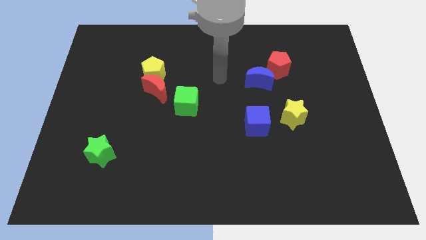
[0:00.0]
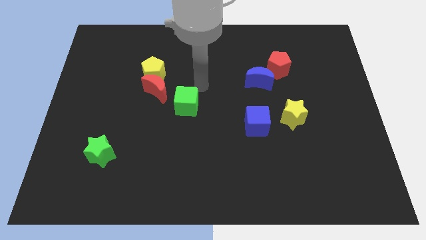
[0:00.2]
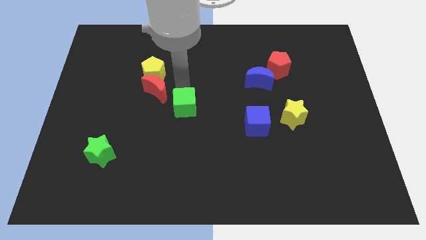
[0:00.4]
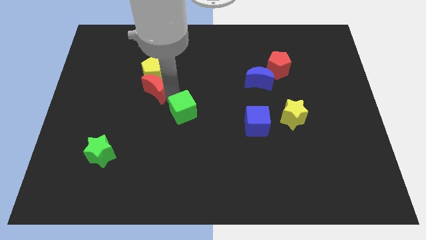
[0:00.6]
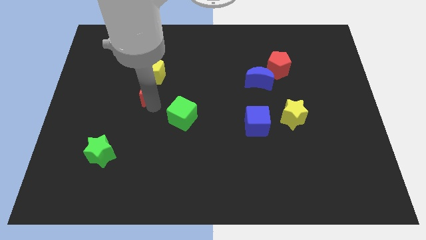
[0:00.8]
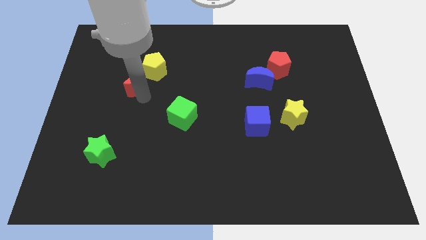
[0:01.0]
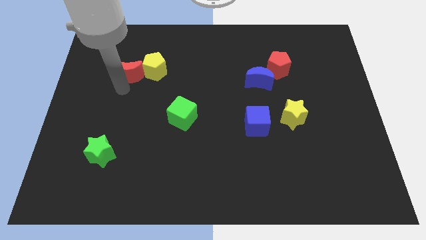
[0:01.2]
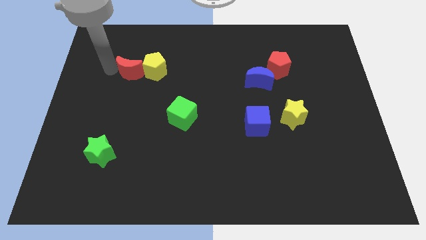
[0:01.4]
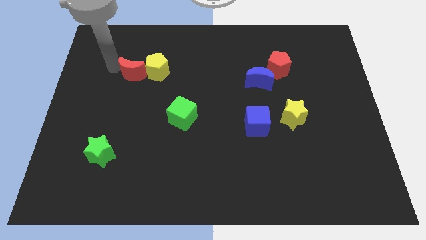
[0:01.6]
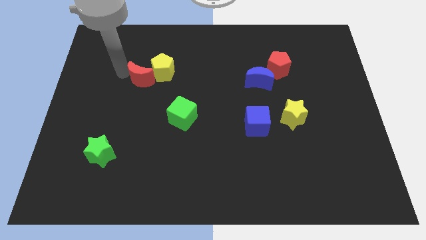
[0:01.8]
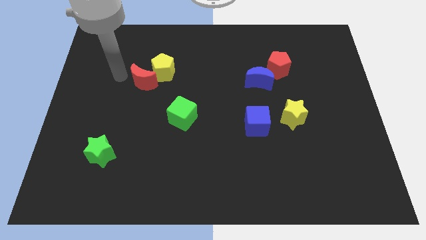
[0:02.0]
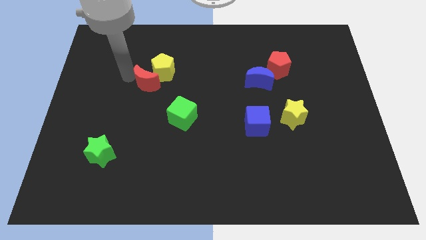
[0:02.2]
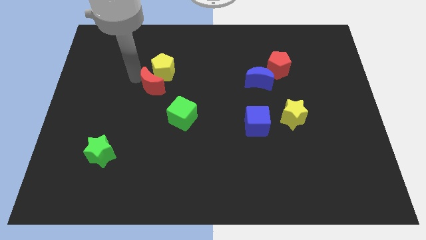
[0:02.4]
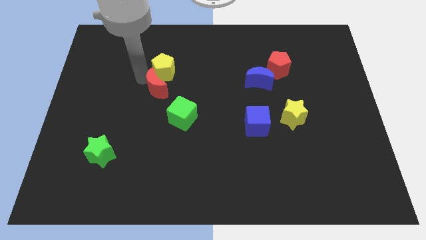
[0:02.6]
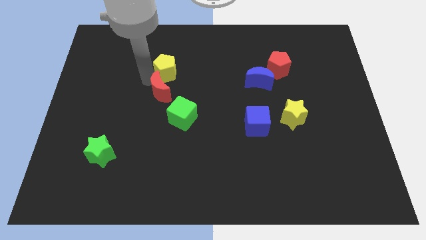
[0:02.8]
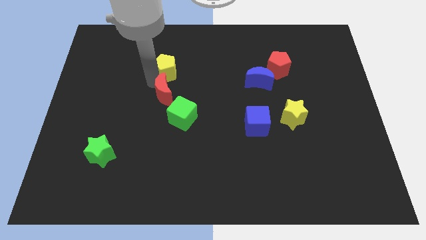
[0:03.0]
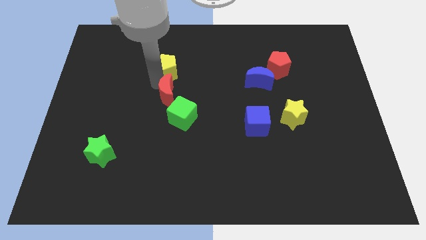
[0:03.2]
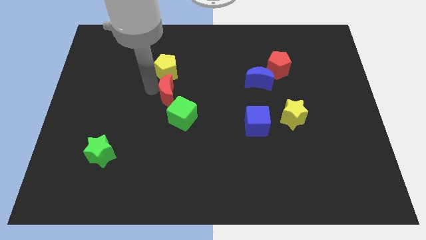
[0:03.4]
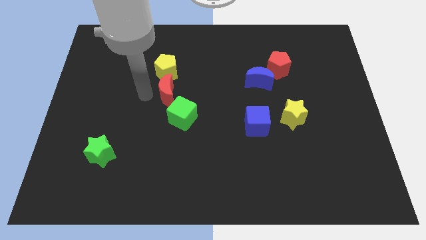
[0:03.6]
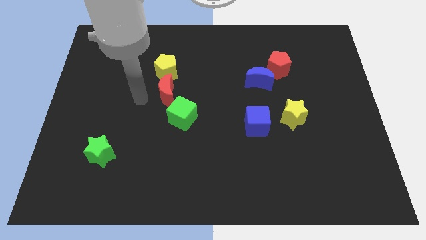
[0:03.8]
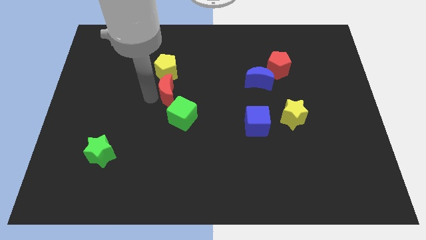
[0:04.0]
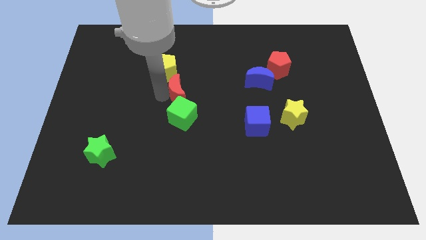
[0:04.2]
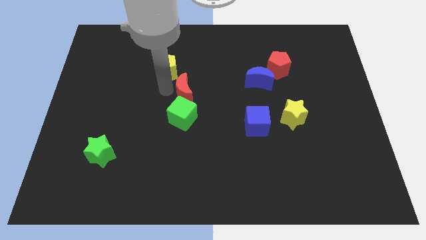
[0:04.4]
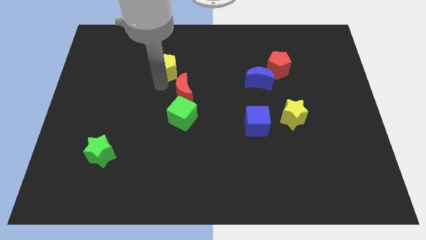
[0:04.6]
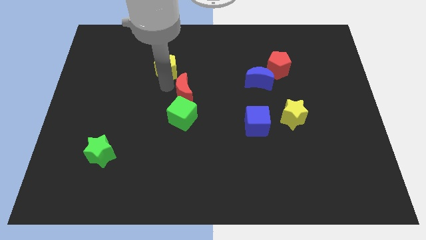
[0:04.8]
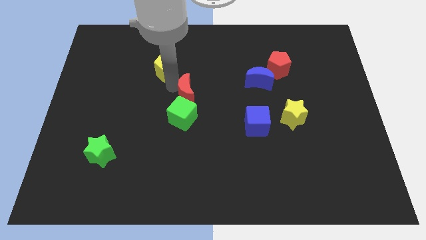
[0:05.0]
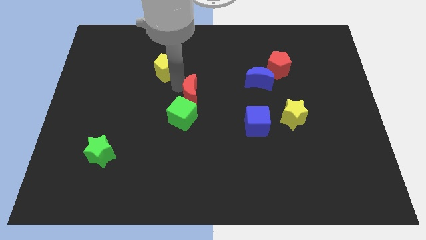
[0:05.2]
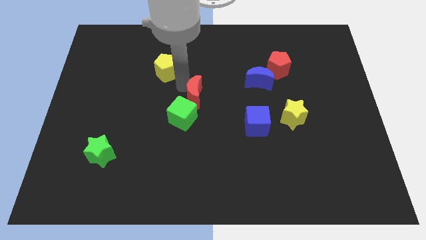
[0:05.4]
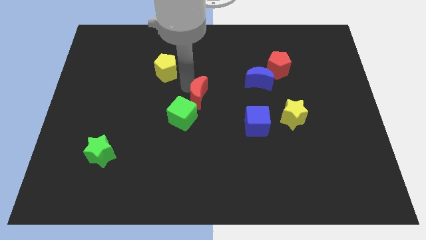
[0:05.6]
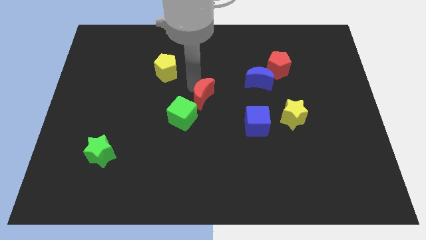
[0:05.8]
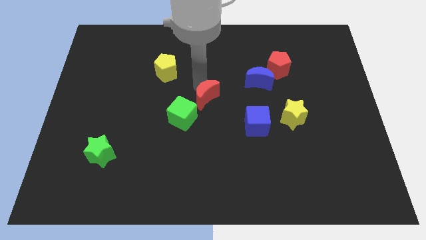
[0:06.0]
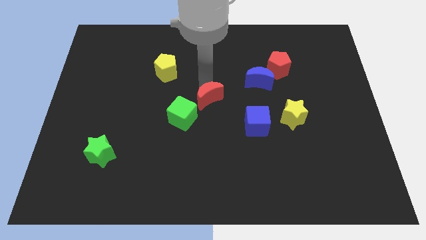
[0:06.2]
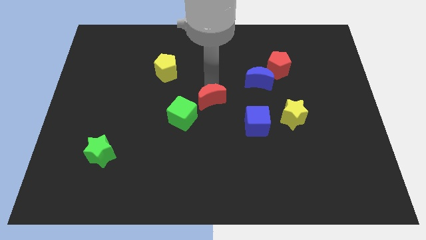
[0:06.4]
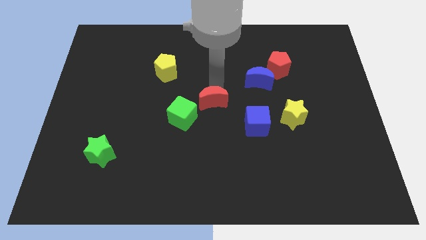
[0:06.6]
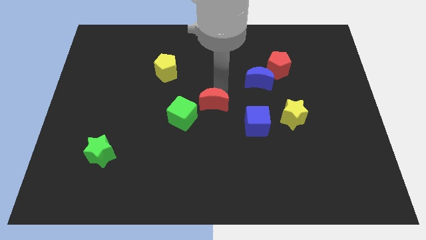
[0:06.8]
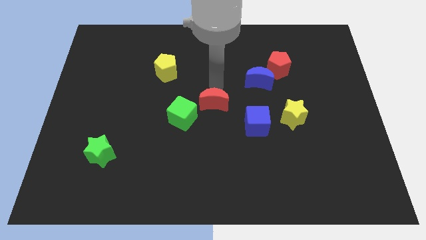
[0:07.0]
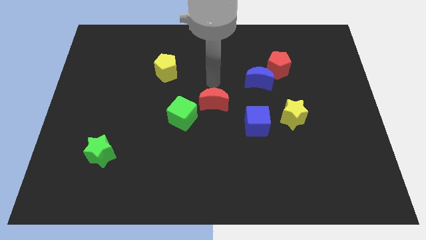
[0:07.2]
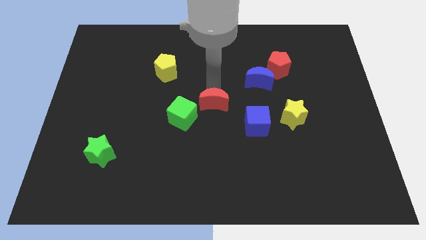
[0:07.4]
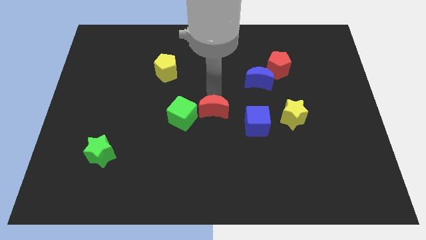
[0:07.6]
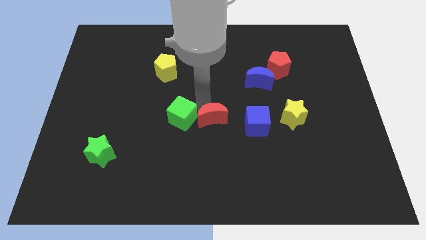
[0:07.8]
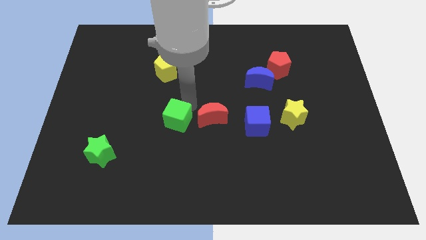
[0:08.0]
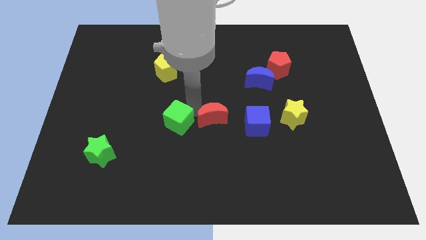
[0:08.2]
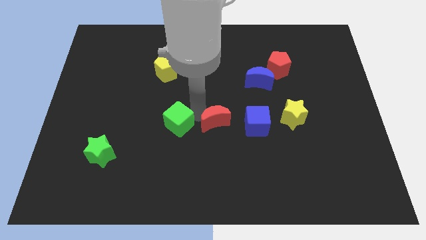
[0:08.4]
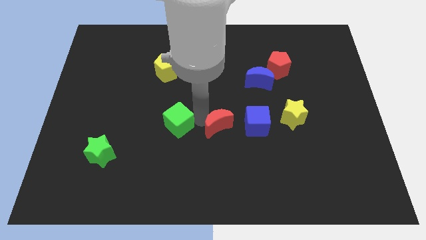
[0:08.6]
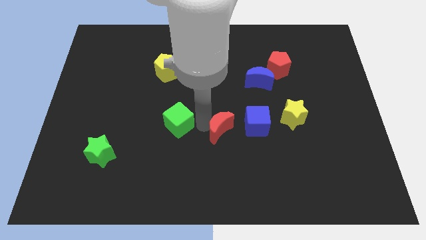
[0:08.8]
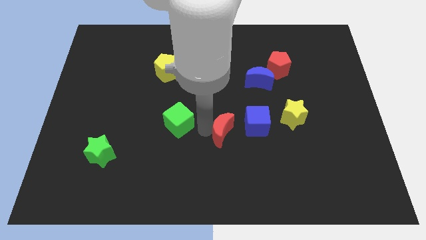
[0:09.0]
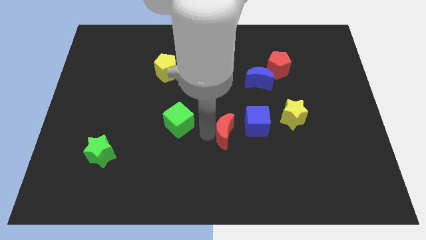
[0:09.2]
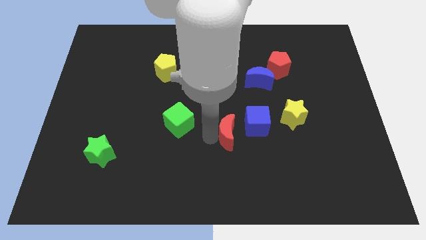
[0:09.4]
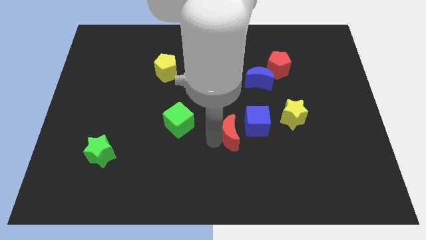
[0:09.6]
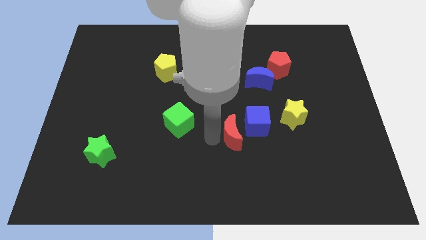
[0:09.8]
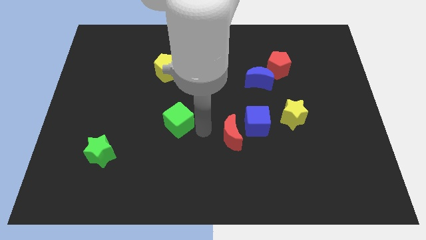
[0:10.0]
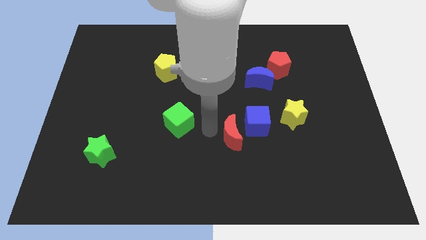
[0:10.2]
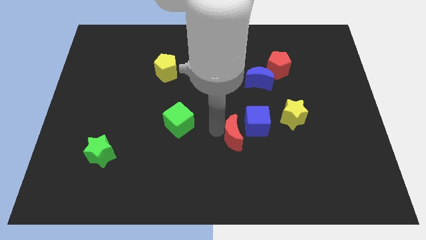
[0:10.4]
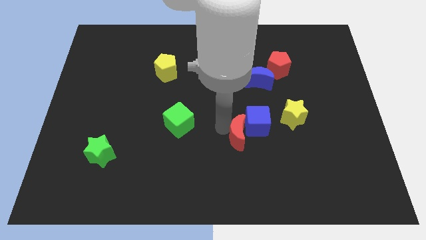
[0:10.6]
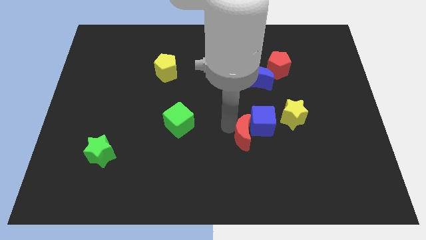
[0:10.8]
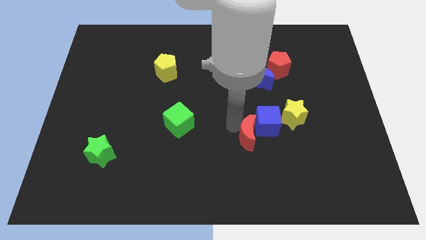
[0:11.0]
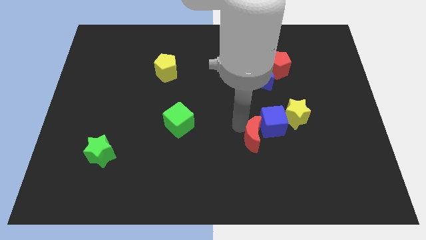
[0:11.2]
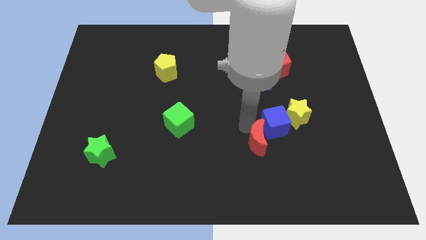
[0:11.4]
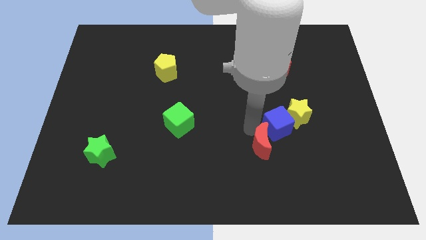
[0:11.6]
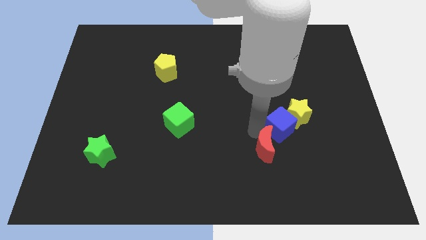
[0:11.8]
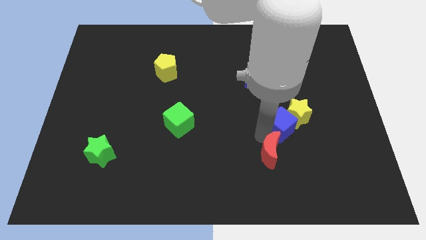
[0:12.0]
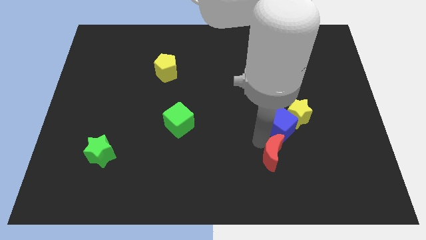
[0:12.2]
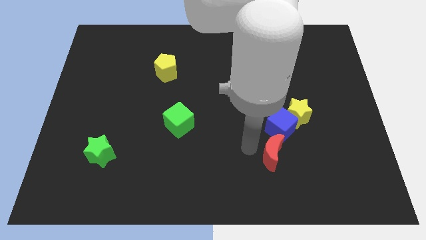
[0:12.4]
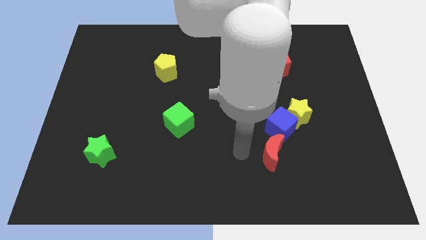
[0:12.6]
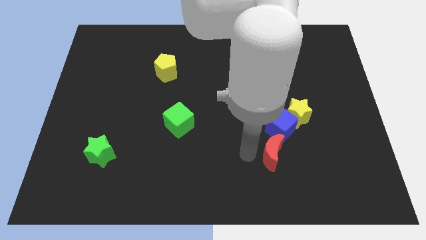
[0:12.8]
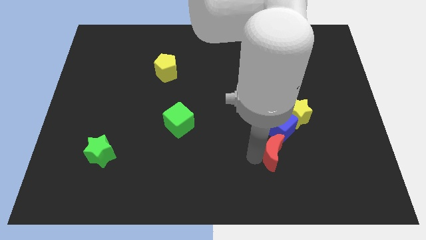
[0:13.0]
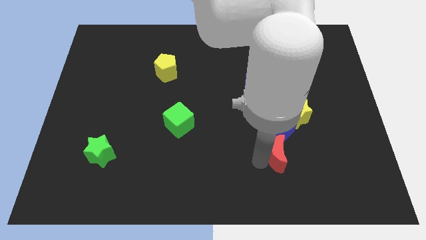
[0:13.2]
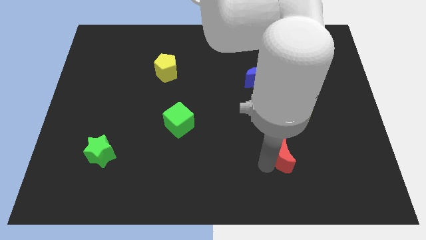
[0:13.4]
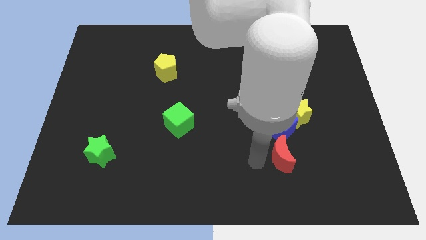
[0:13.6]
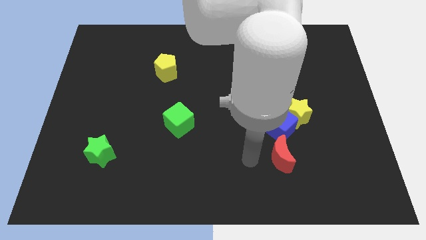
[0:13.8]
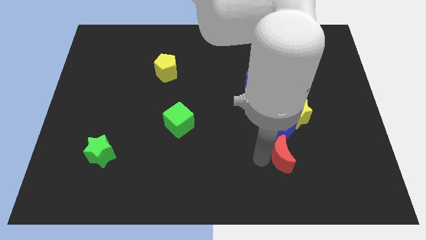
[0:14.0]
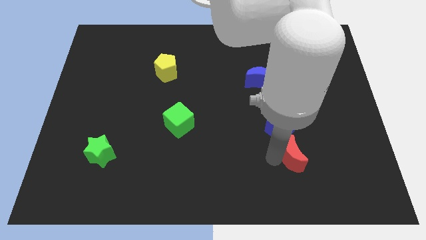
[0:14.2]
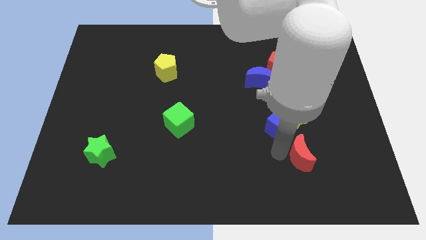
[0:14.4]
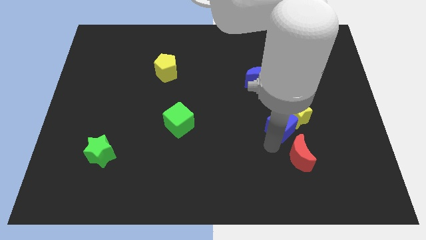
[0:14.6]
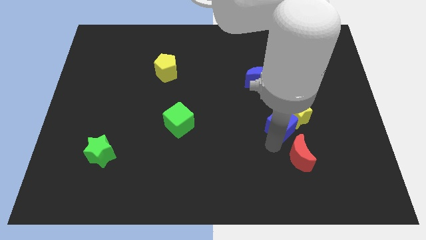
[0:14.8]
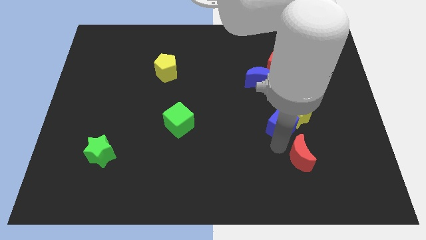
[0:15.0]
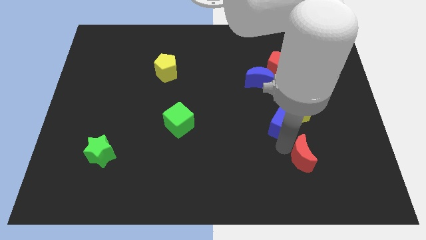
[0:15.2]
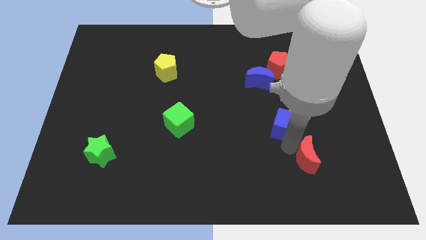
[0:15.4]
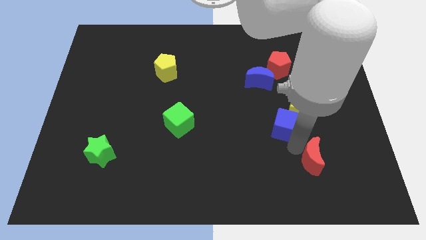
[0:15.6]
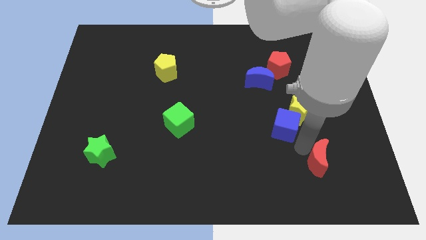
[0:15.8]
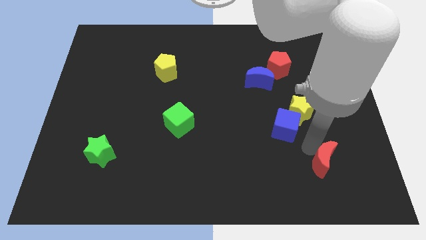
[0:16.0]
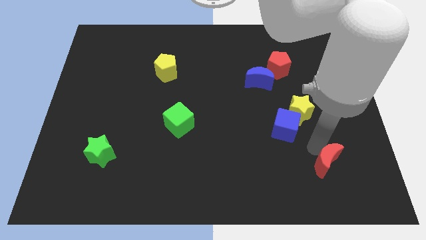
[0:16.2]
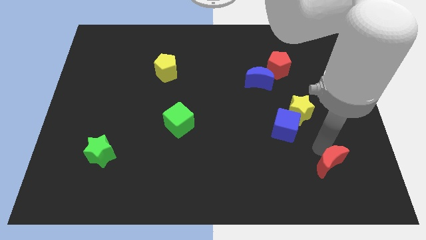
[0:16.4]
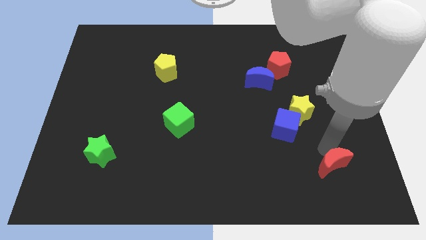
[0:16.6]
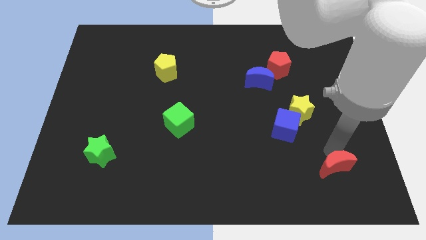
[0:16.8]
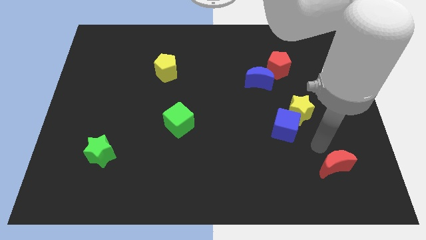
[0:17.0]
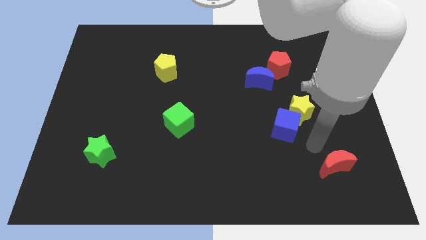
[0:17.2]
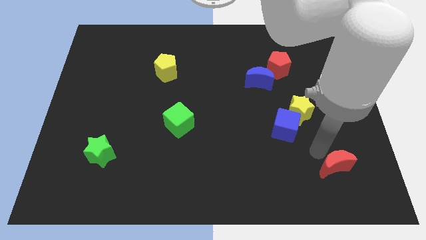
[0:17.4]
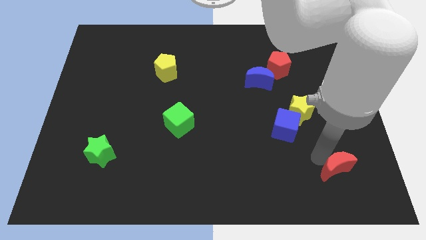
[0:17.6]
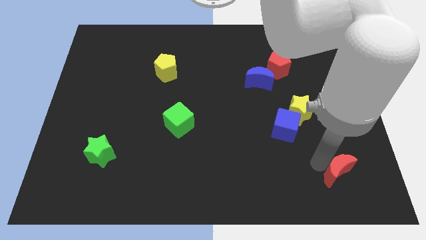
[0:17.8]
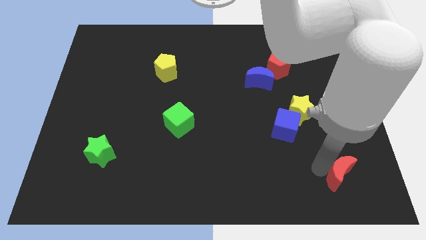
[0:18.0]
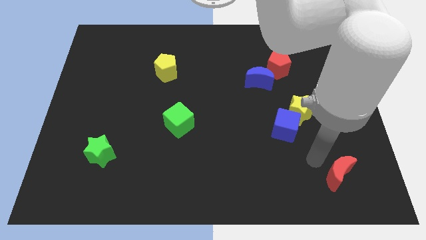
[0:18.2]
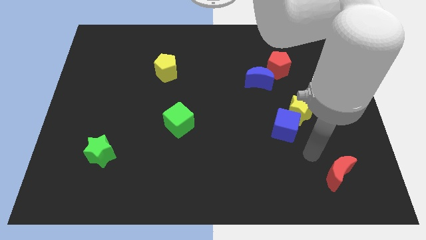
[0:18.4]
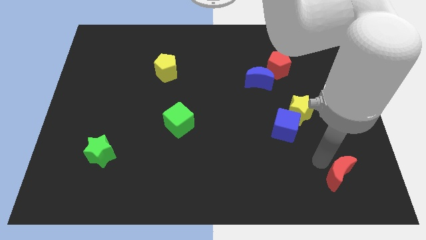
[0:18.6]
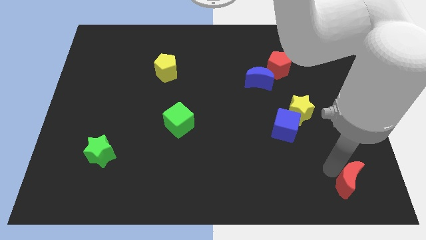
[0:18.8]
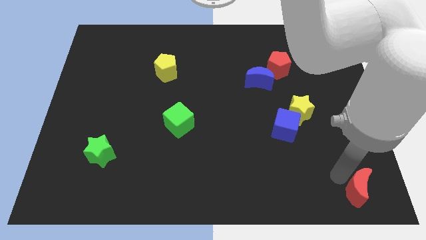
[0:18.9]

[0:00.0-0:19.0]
put the red moon to the lower right corner
